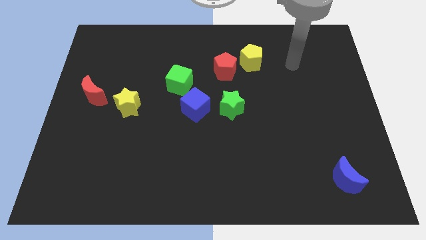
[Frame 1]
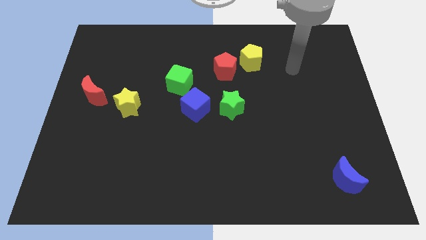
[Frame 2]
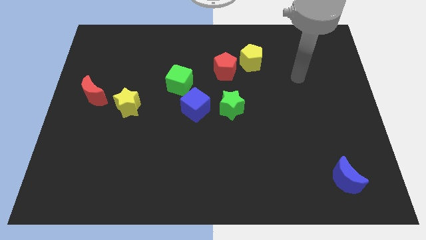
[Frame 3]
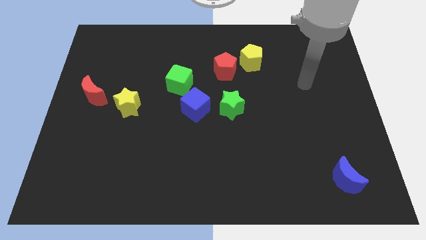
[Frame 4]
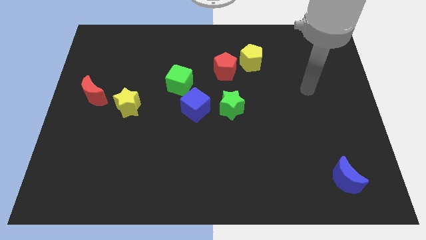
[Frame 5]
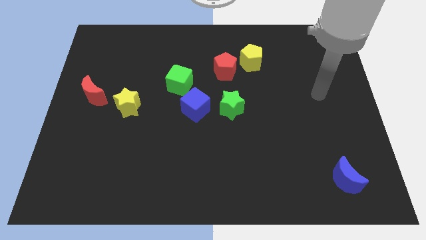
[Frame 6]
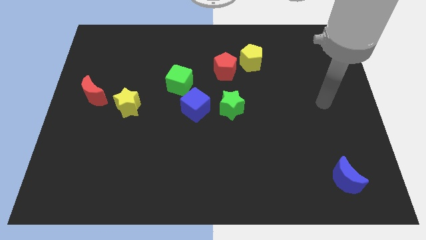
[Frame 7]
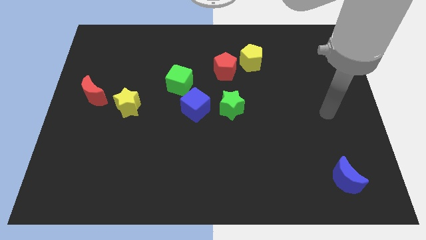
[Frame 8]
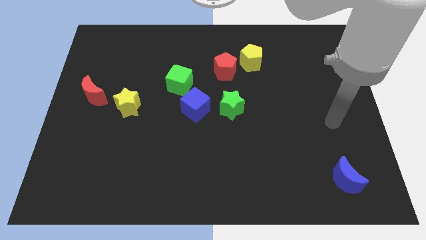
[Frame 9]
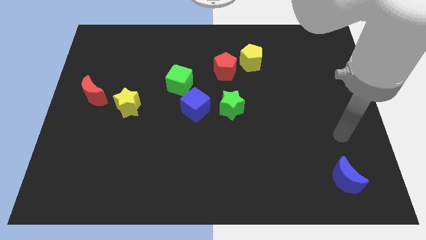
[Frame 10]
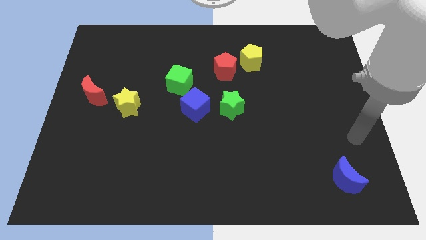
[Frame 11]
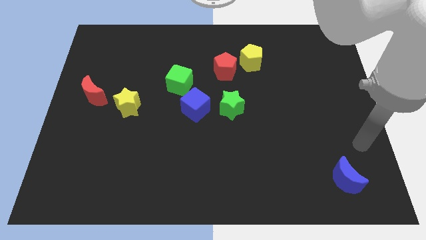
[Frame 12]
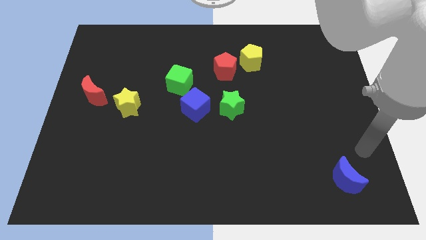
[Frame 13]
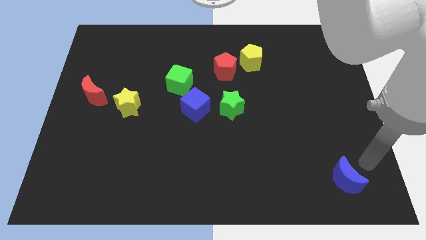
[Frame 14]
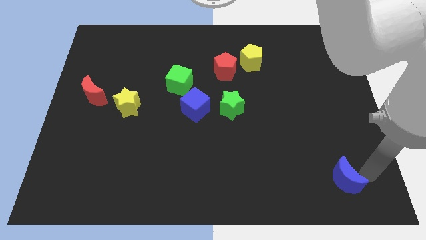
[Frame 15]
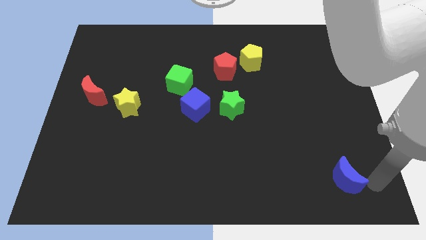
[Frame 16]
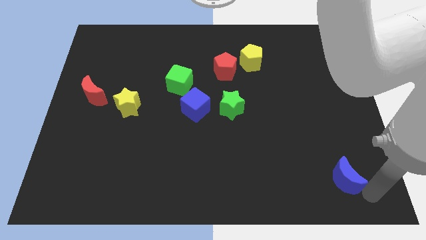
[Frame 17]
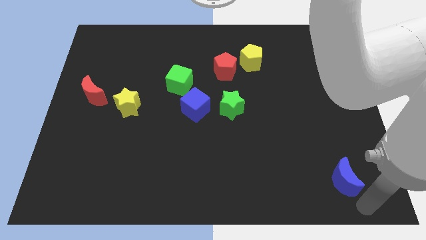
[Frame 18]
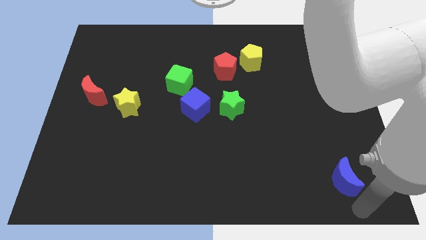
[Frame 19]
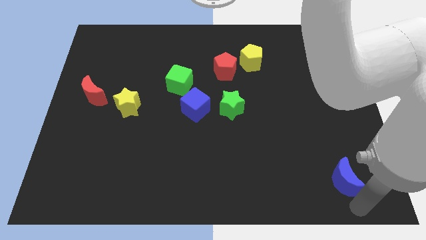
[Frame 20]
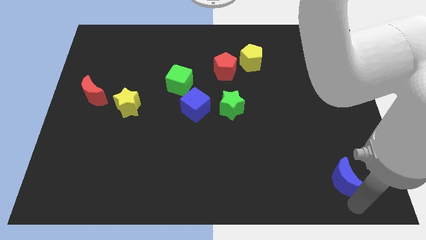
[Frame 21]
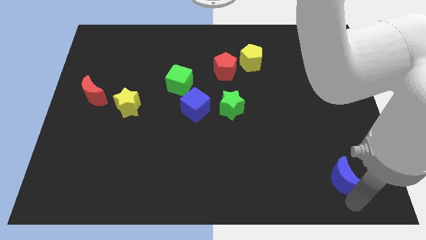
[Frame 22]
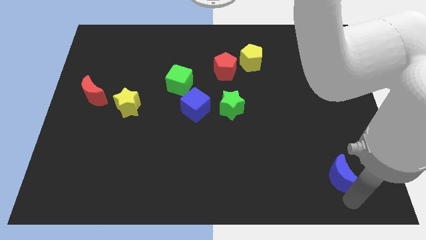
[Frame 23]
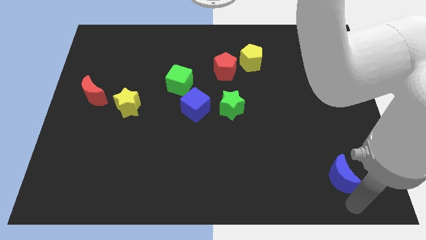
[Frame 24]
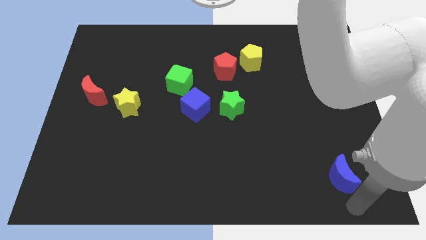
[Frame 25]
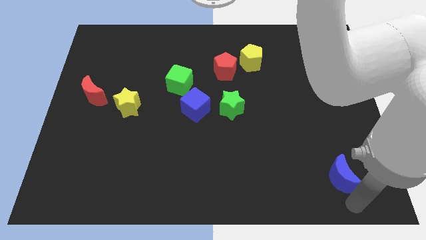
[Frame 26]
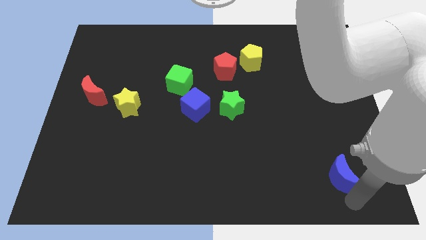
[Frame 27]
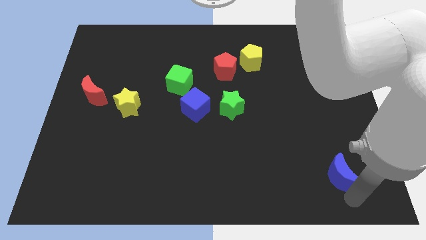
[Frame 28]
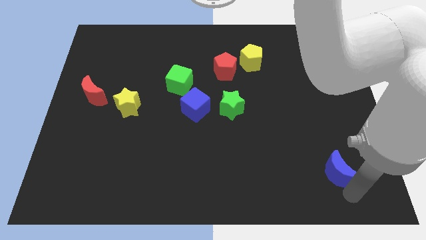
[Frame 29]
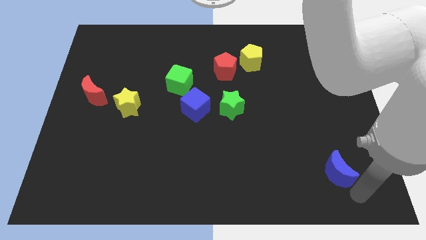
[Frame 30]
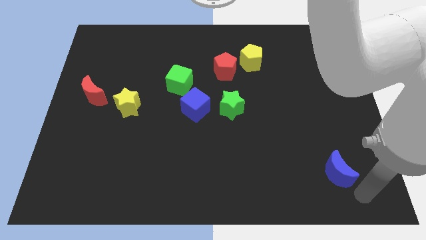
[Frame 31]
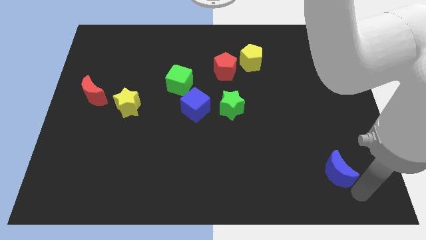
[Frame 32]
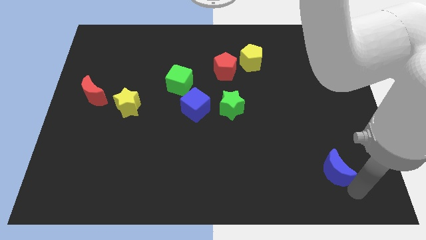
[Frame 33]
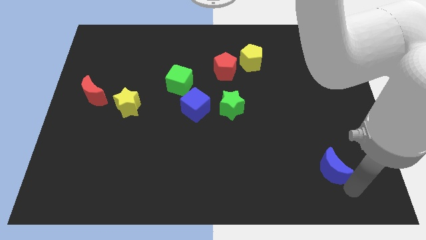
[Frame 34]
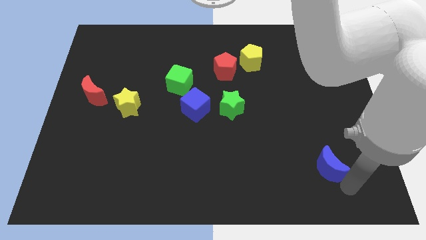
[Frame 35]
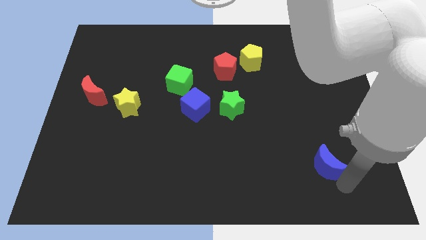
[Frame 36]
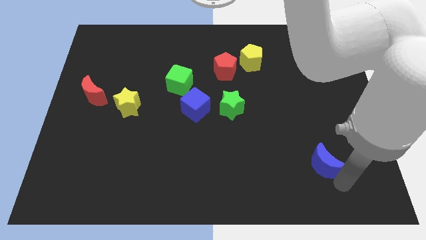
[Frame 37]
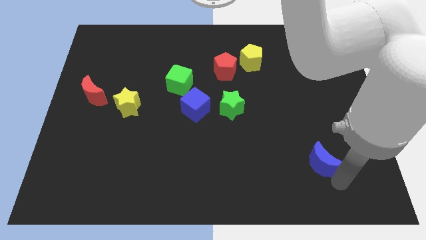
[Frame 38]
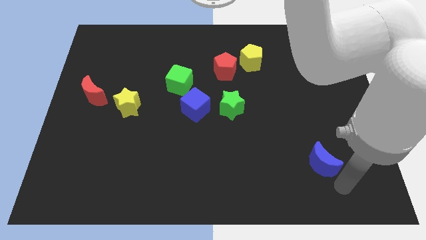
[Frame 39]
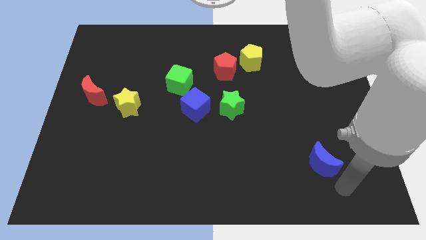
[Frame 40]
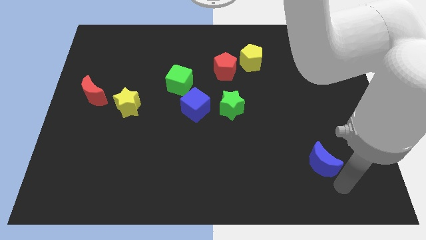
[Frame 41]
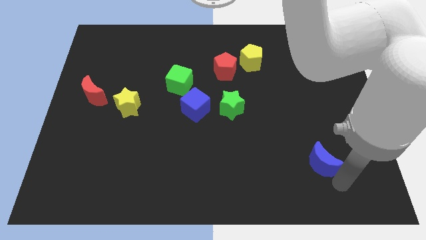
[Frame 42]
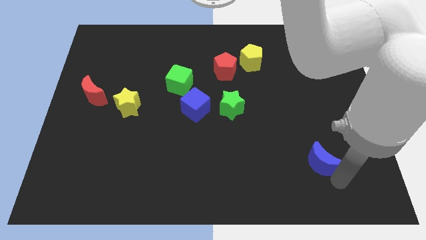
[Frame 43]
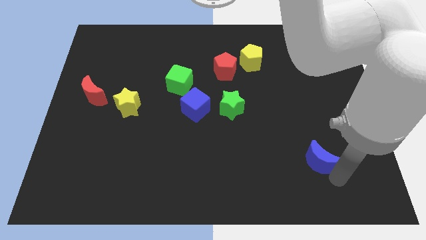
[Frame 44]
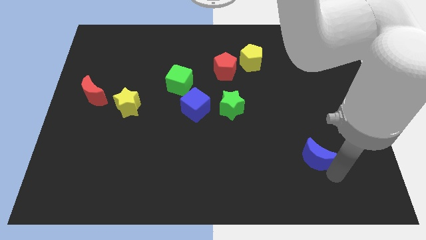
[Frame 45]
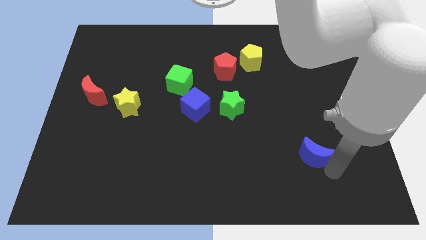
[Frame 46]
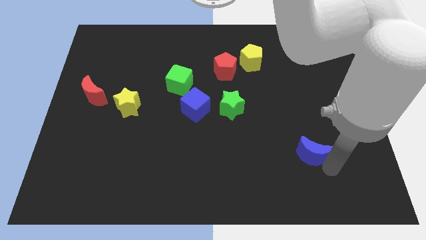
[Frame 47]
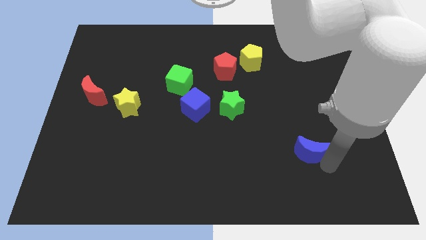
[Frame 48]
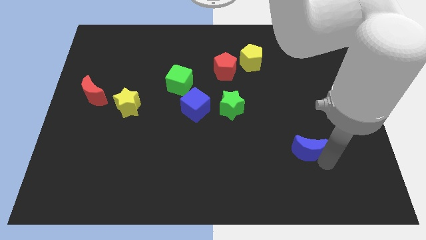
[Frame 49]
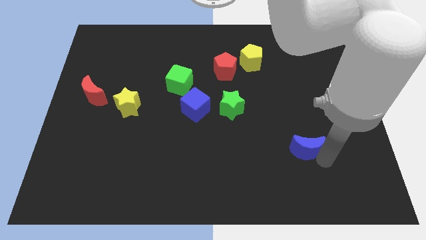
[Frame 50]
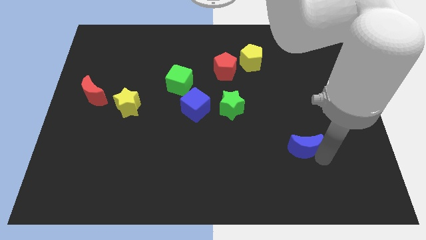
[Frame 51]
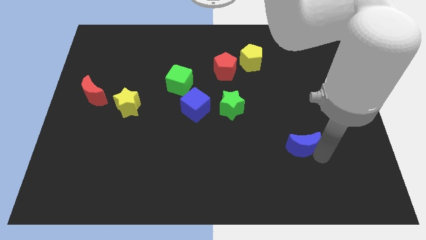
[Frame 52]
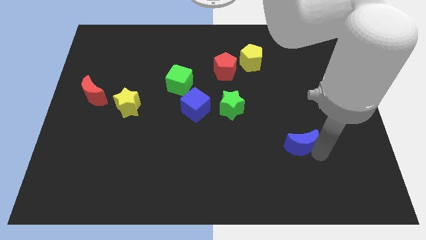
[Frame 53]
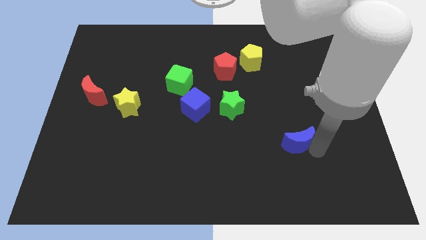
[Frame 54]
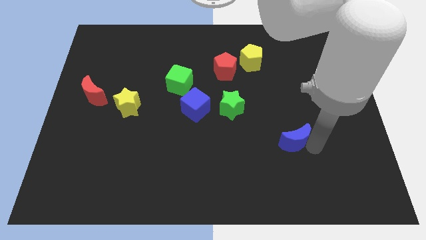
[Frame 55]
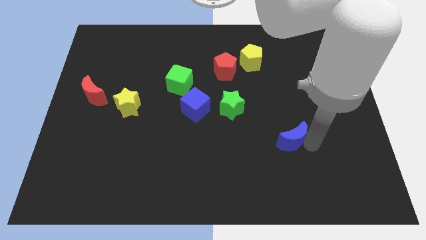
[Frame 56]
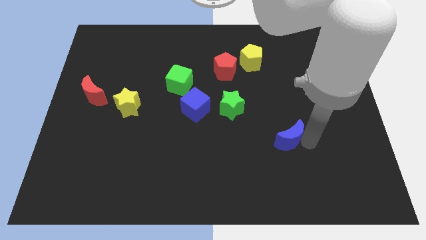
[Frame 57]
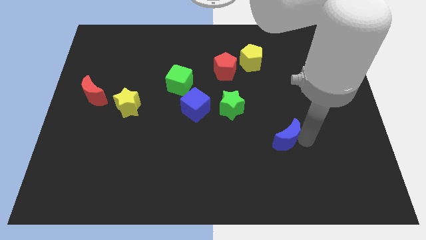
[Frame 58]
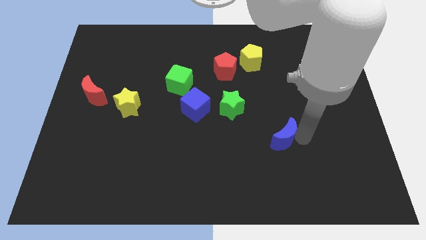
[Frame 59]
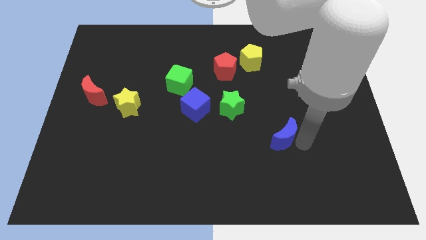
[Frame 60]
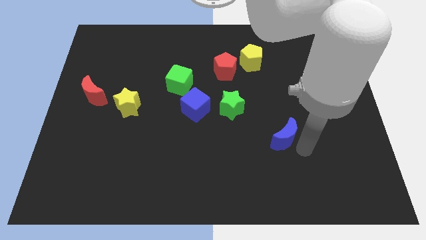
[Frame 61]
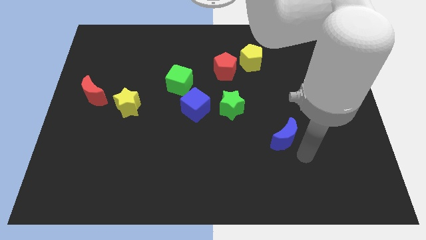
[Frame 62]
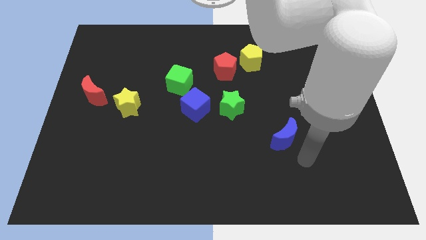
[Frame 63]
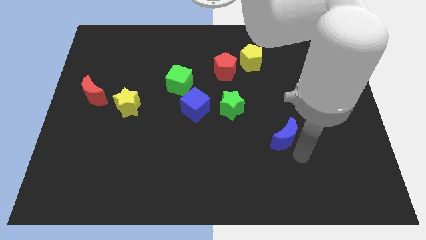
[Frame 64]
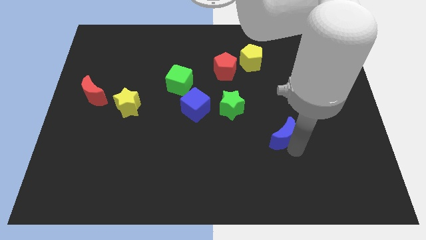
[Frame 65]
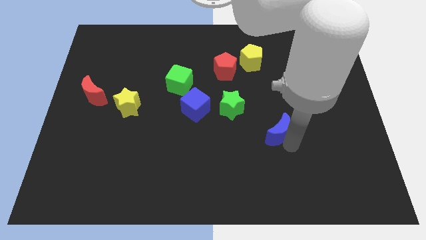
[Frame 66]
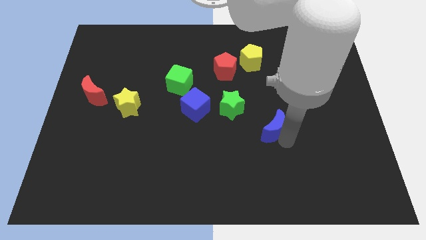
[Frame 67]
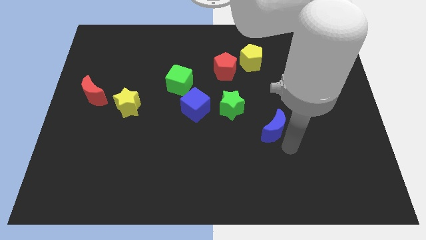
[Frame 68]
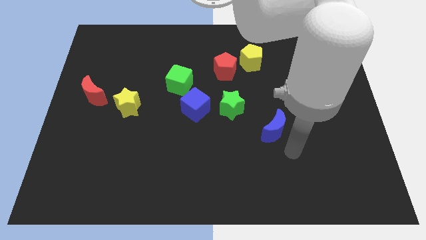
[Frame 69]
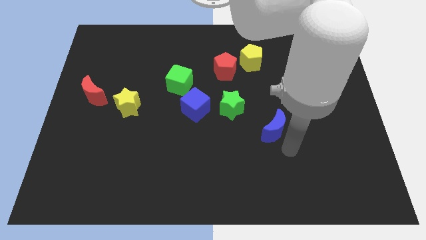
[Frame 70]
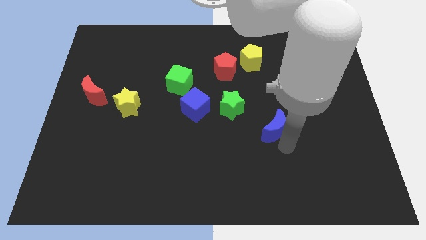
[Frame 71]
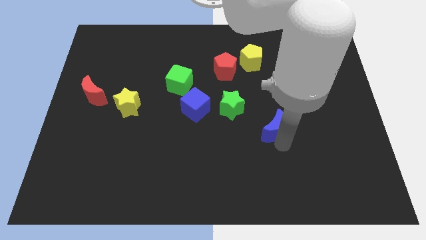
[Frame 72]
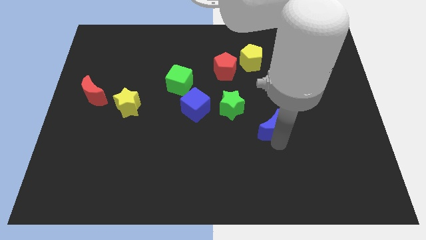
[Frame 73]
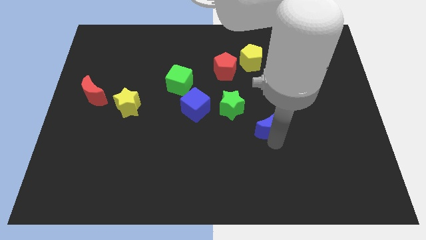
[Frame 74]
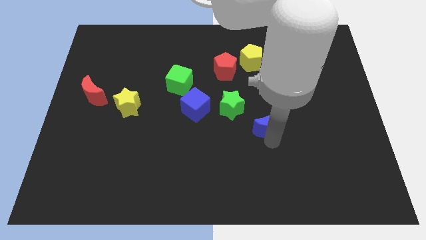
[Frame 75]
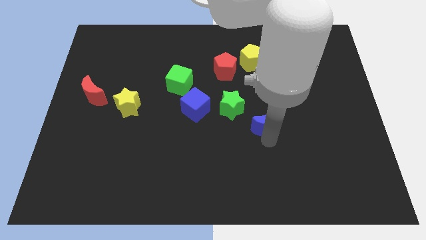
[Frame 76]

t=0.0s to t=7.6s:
slide the blue moon up and to the left diagonally
